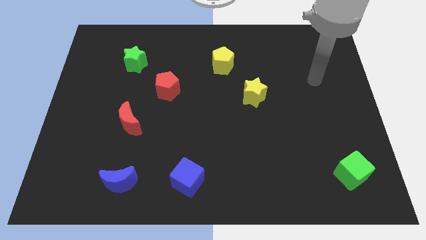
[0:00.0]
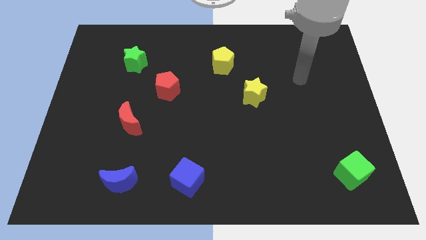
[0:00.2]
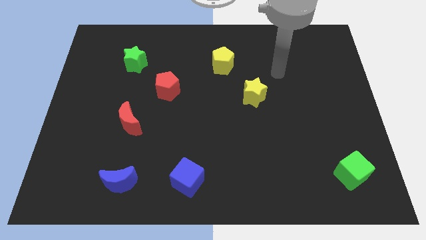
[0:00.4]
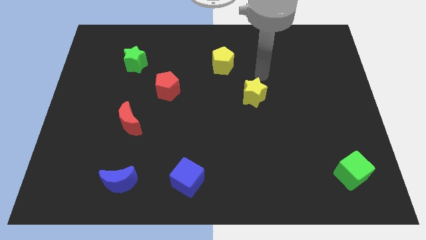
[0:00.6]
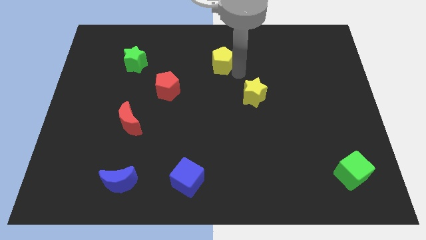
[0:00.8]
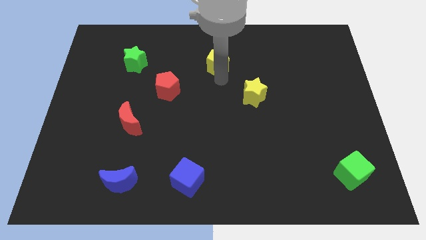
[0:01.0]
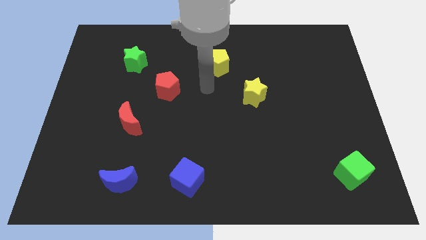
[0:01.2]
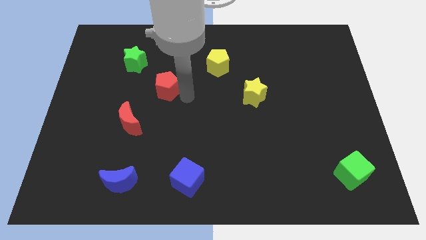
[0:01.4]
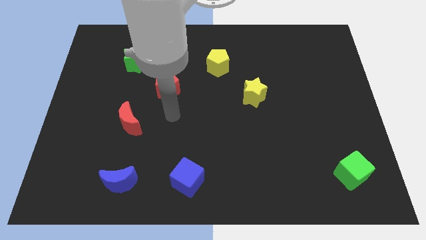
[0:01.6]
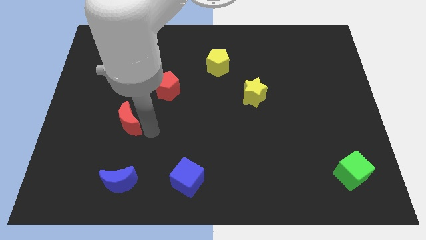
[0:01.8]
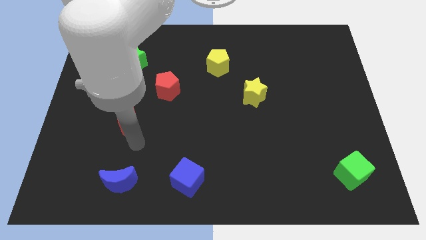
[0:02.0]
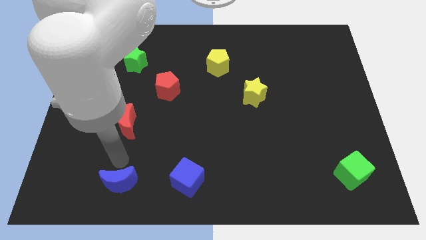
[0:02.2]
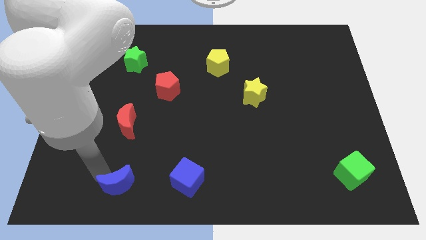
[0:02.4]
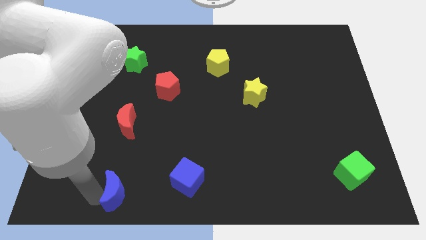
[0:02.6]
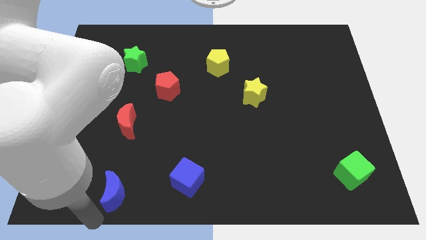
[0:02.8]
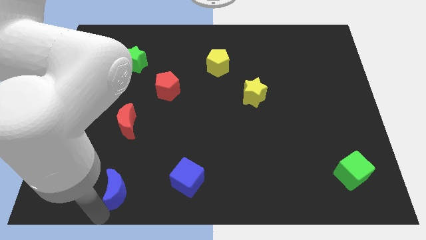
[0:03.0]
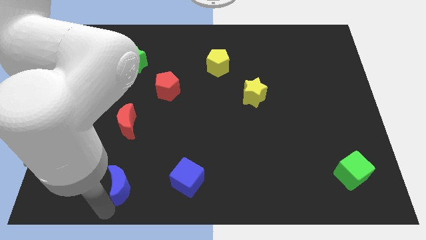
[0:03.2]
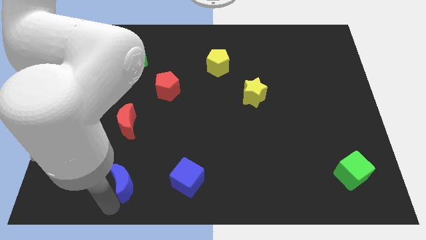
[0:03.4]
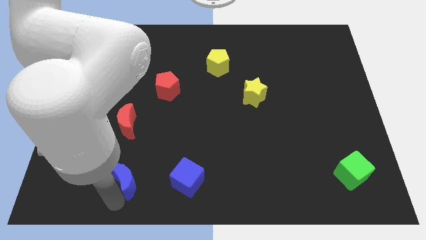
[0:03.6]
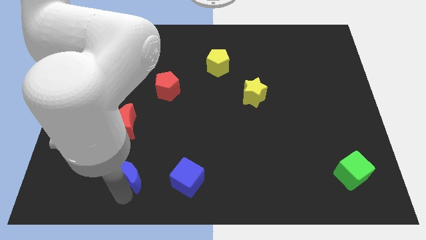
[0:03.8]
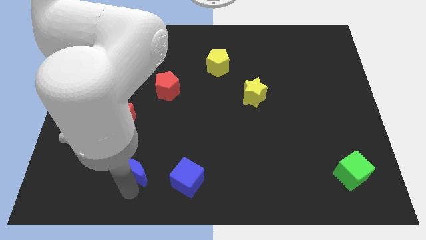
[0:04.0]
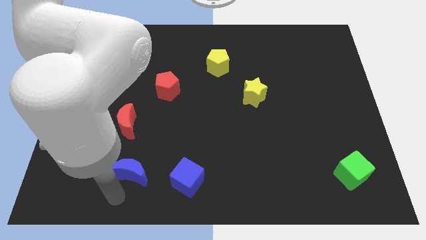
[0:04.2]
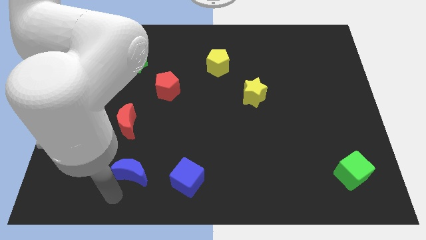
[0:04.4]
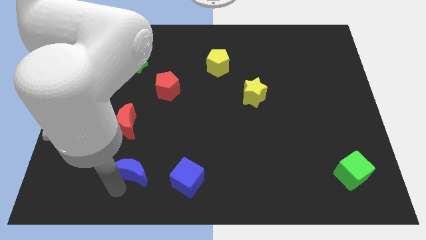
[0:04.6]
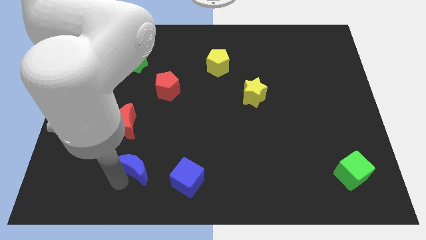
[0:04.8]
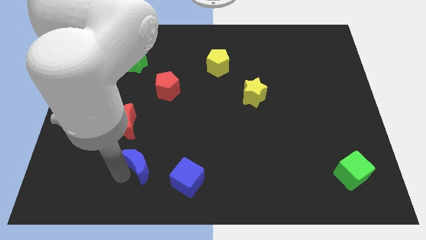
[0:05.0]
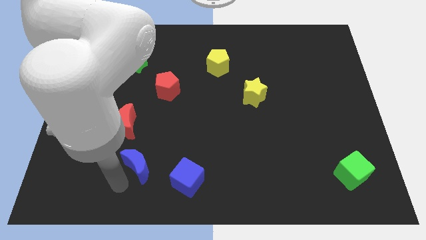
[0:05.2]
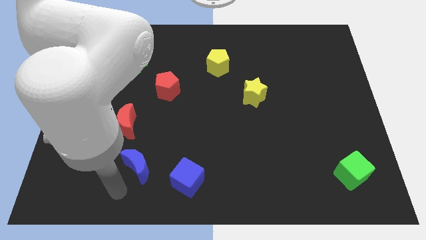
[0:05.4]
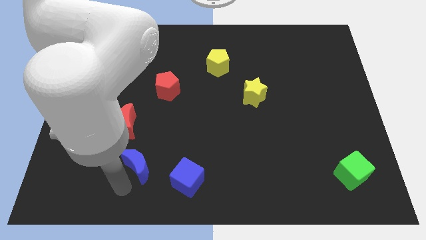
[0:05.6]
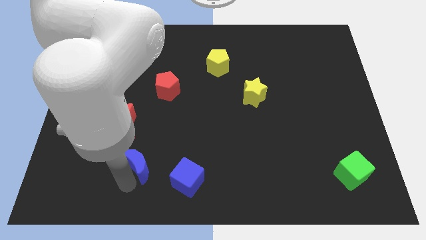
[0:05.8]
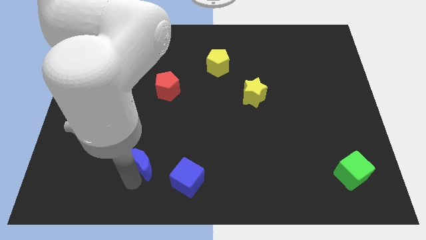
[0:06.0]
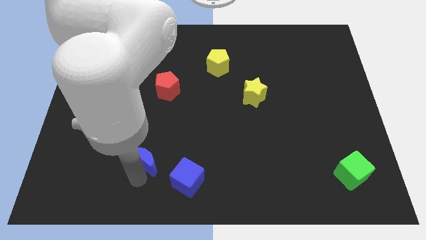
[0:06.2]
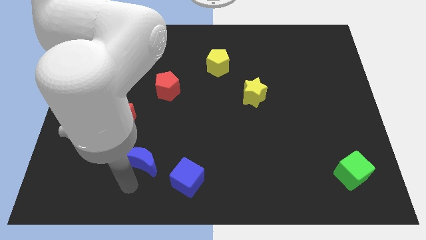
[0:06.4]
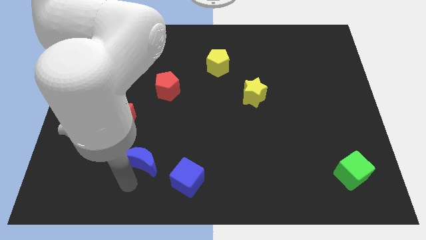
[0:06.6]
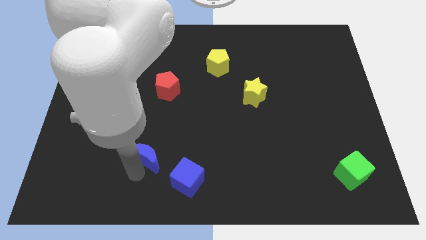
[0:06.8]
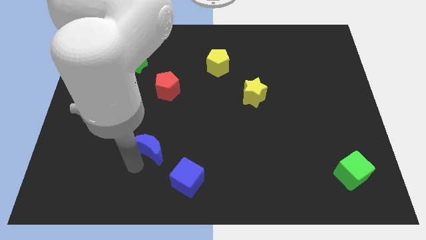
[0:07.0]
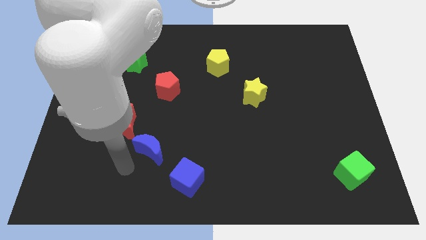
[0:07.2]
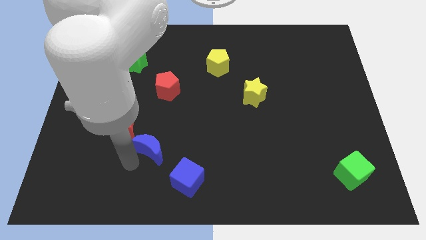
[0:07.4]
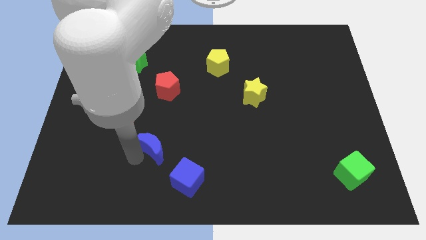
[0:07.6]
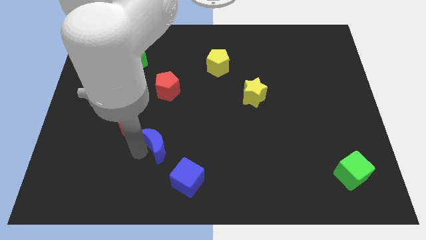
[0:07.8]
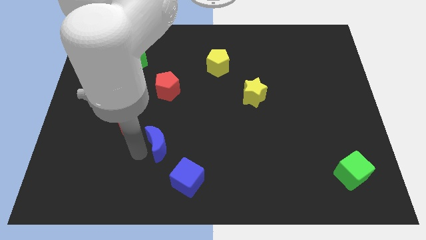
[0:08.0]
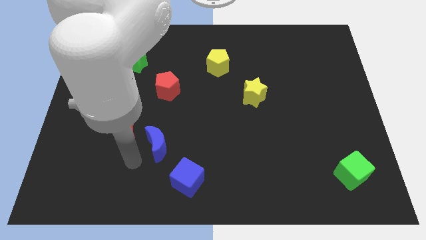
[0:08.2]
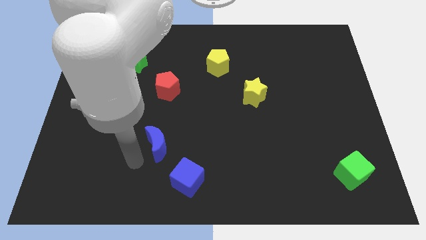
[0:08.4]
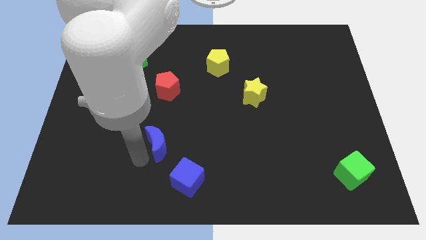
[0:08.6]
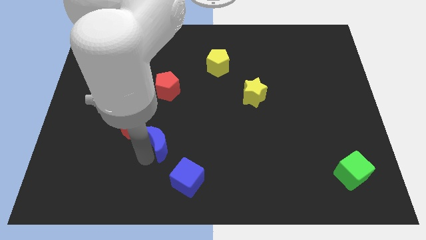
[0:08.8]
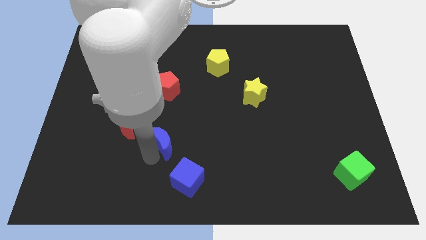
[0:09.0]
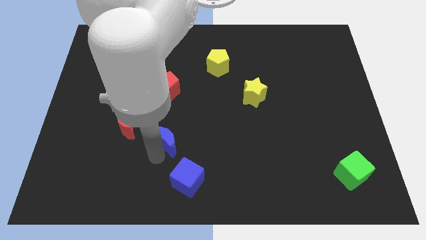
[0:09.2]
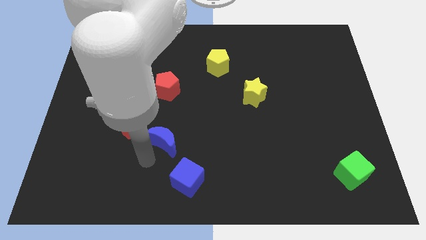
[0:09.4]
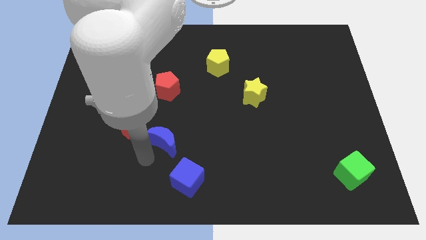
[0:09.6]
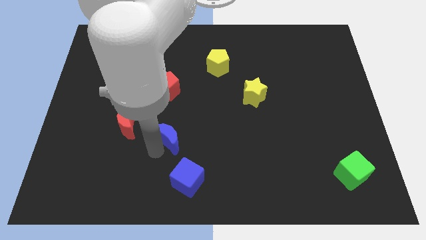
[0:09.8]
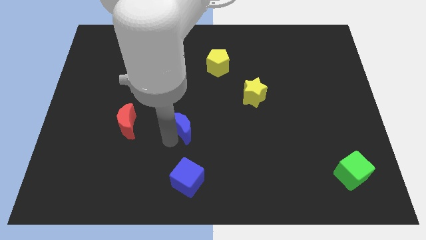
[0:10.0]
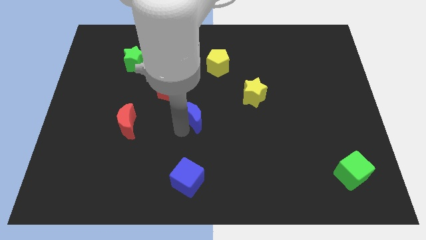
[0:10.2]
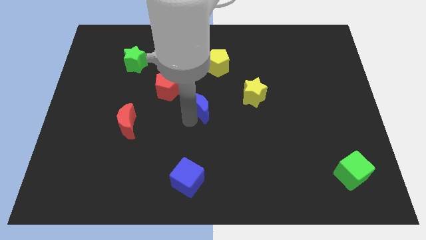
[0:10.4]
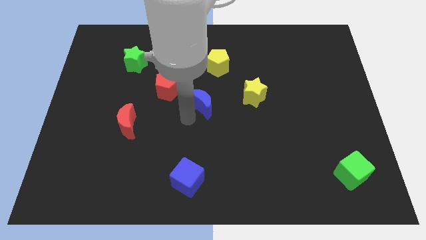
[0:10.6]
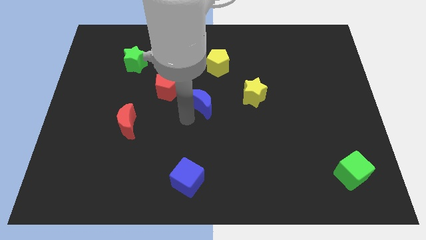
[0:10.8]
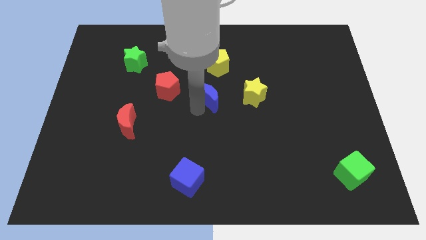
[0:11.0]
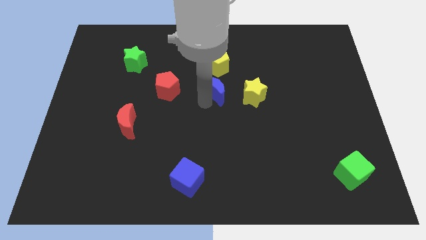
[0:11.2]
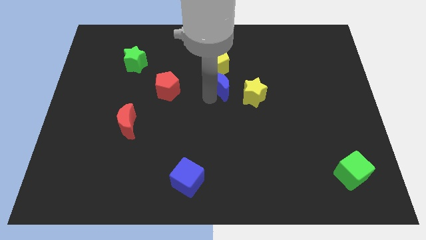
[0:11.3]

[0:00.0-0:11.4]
push the blue moon diagonally up and to the left of the yellow star

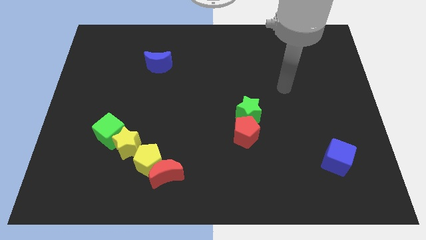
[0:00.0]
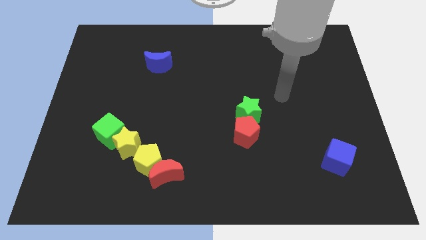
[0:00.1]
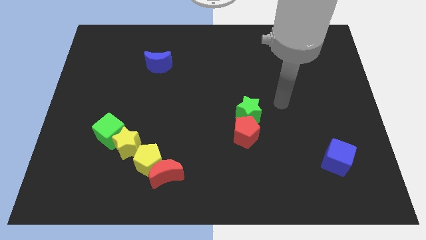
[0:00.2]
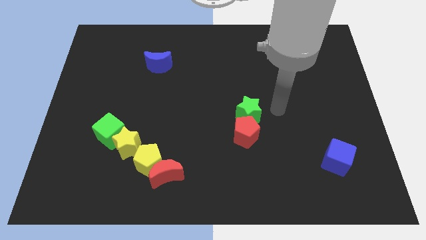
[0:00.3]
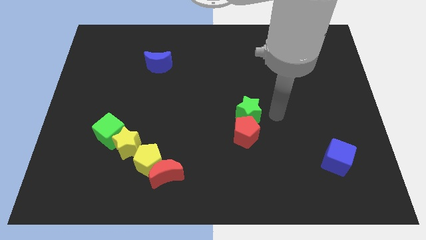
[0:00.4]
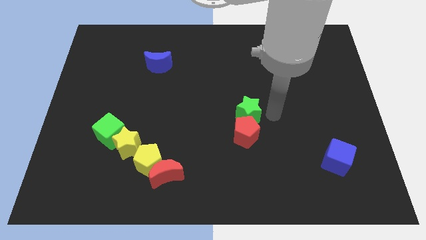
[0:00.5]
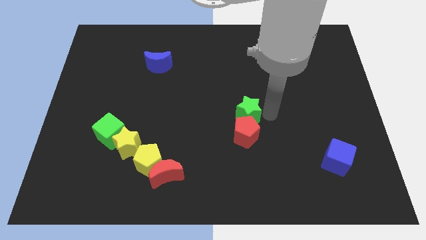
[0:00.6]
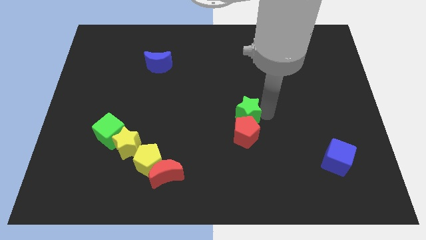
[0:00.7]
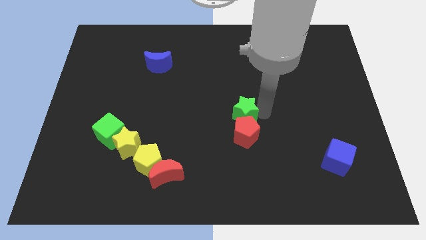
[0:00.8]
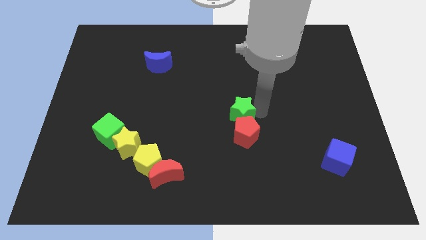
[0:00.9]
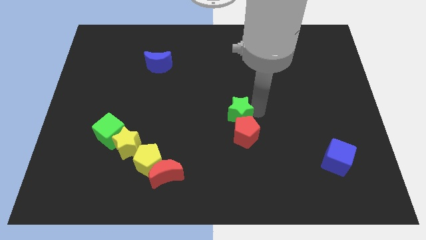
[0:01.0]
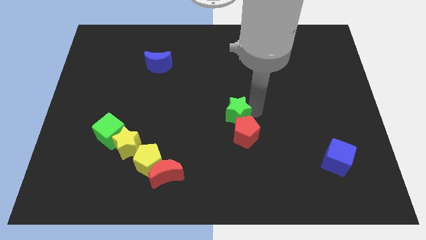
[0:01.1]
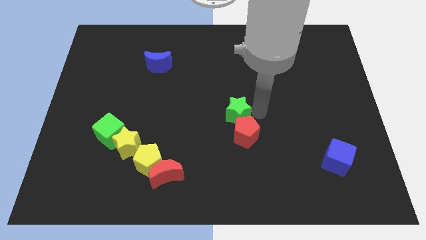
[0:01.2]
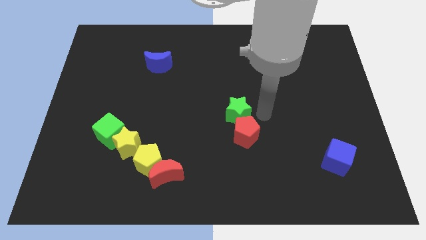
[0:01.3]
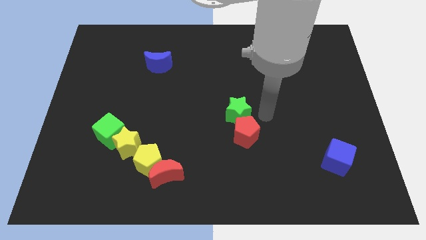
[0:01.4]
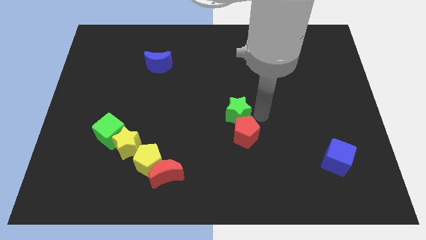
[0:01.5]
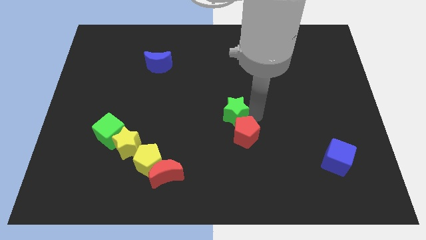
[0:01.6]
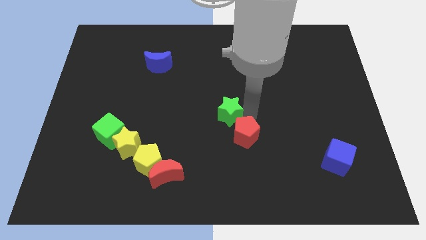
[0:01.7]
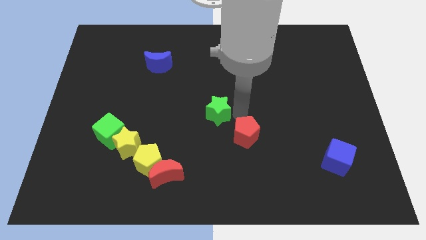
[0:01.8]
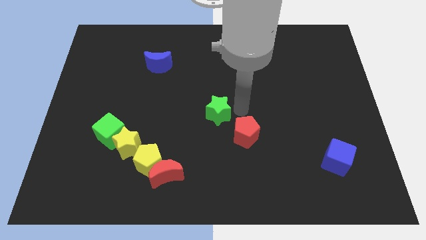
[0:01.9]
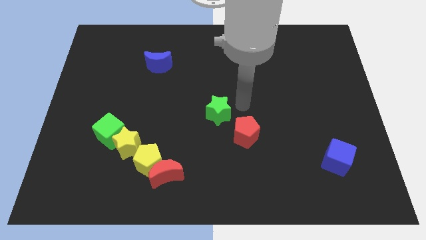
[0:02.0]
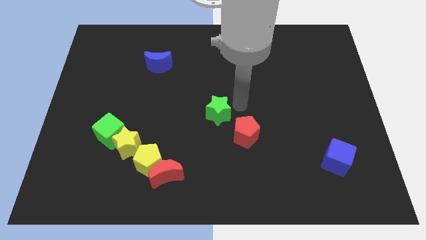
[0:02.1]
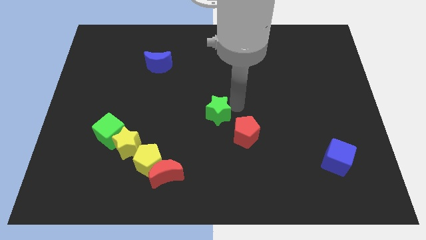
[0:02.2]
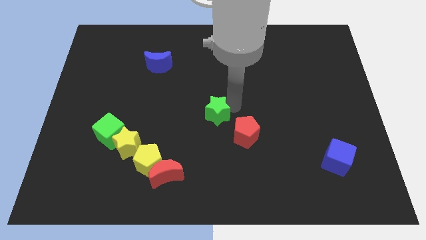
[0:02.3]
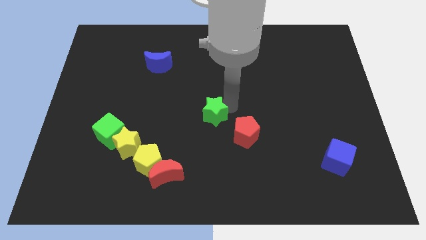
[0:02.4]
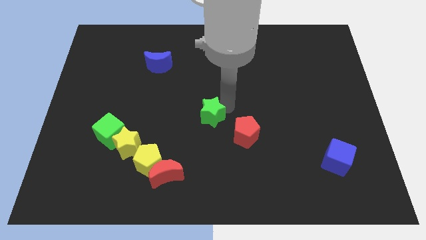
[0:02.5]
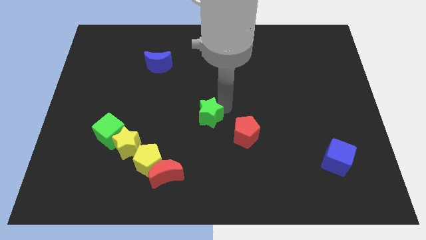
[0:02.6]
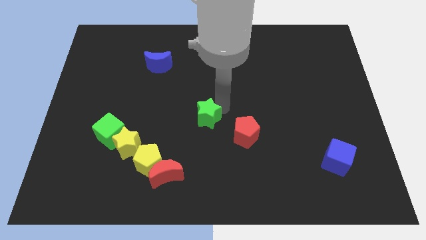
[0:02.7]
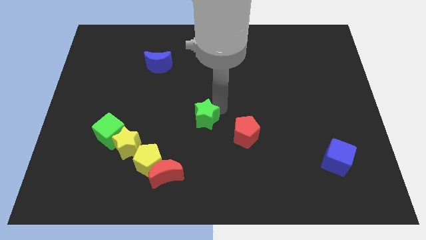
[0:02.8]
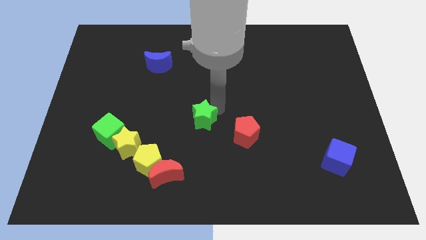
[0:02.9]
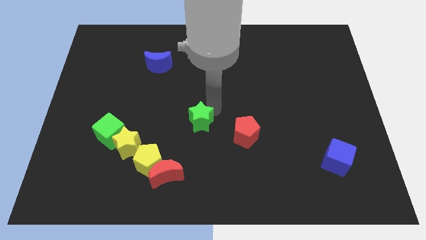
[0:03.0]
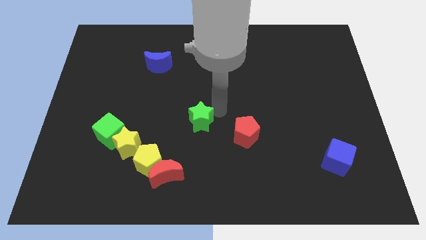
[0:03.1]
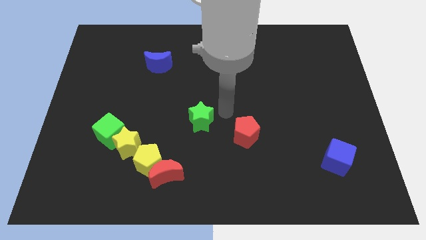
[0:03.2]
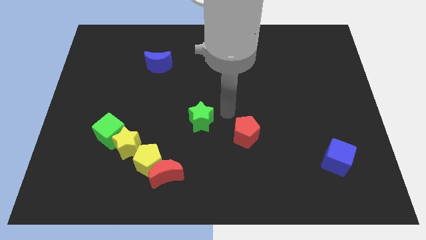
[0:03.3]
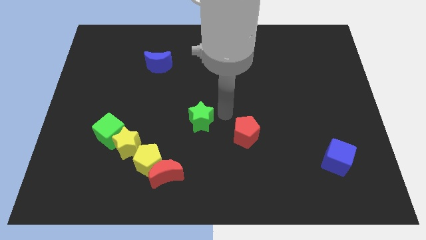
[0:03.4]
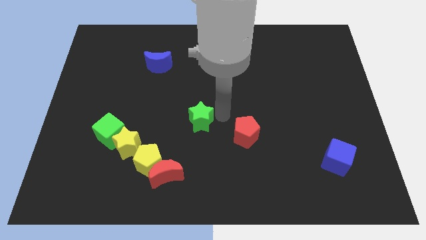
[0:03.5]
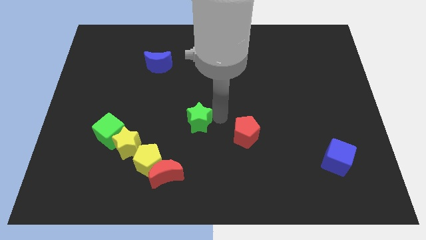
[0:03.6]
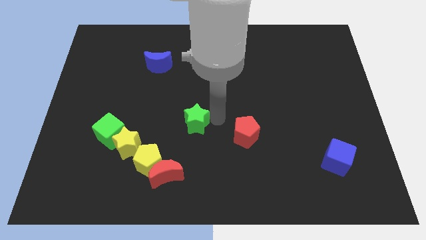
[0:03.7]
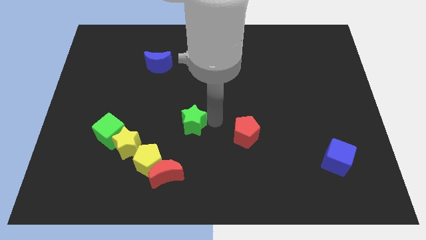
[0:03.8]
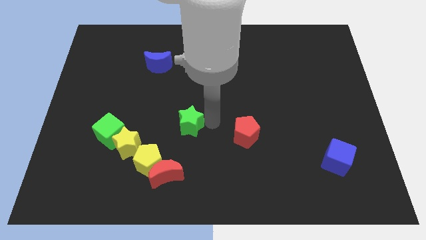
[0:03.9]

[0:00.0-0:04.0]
push the green star above the red moon
